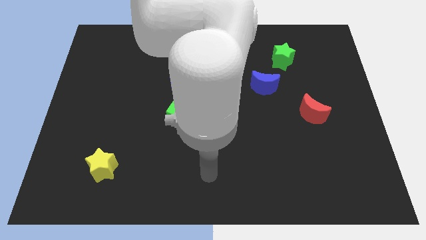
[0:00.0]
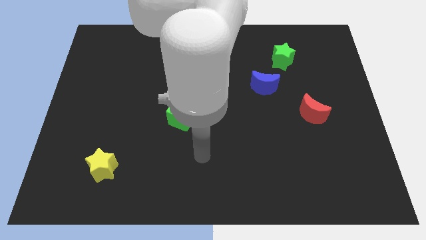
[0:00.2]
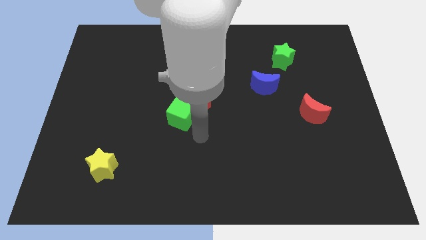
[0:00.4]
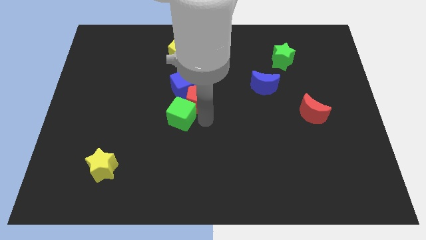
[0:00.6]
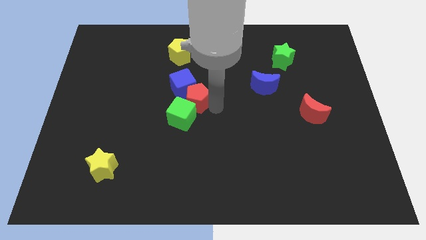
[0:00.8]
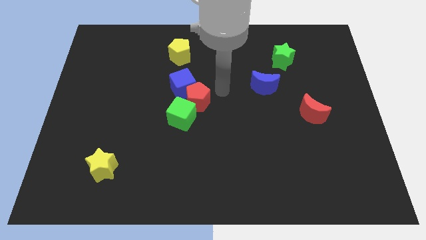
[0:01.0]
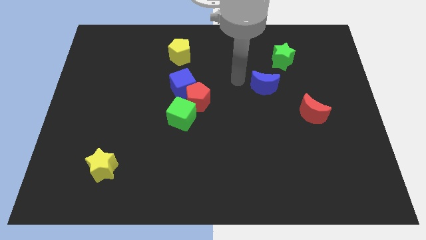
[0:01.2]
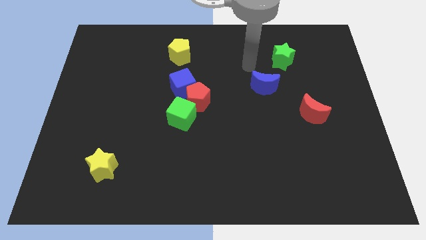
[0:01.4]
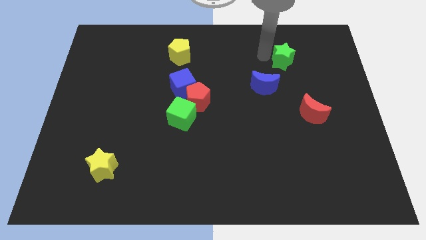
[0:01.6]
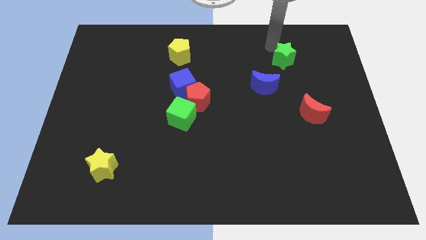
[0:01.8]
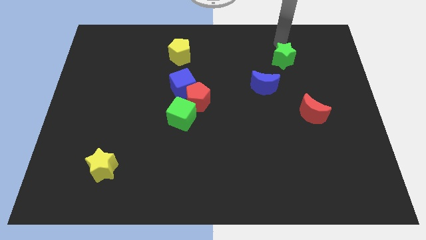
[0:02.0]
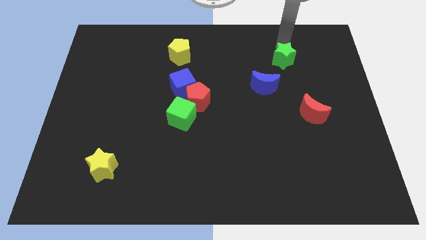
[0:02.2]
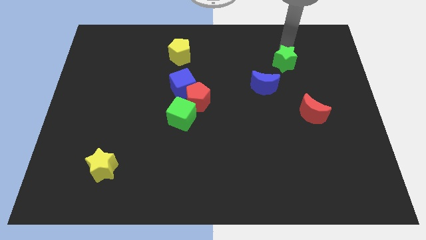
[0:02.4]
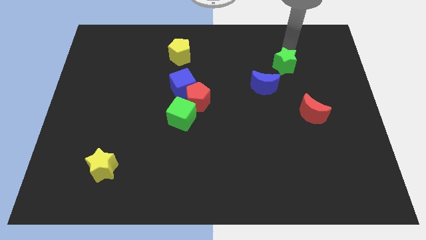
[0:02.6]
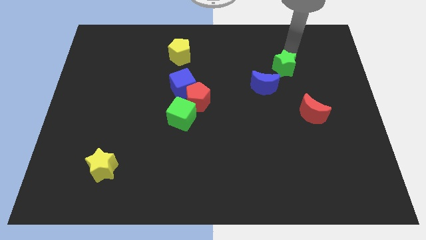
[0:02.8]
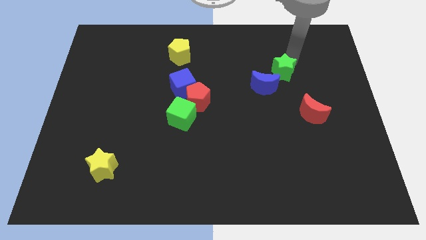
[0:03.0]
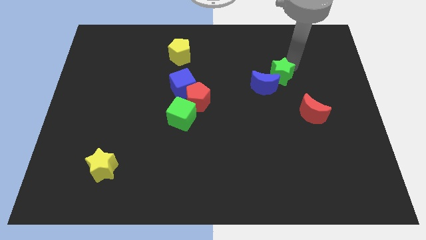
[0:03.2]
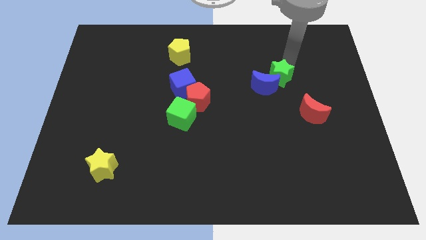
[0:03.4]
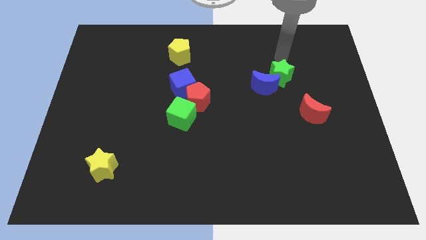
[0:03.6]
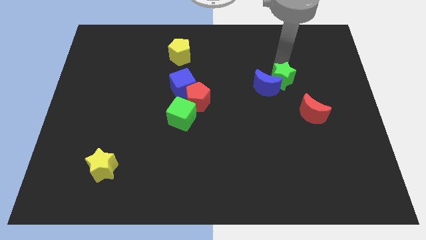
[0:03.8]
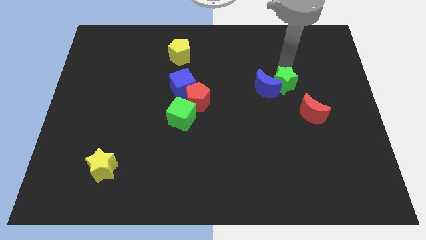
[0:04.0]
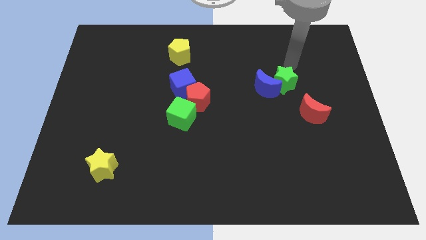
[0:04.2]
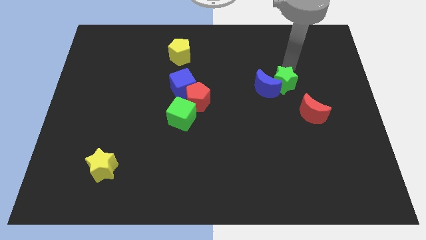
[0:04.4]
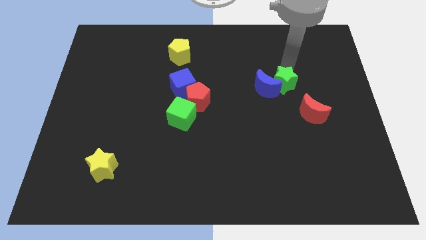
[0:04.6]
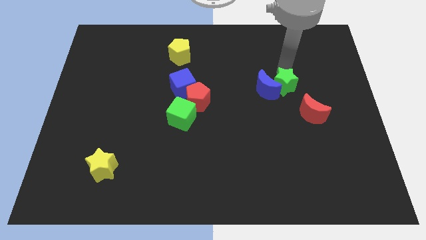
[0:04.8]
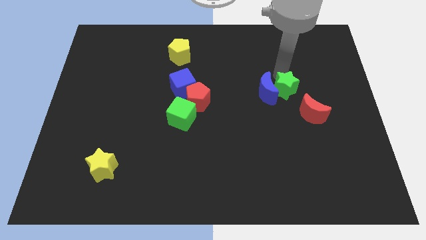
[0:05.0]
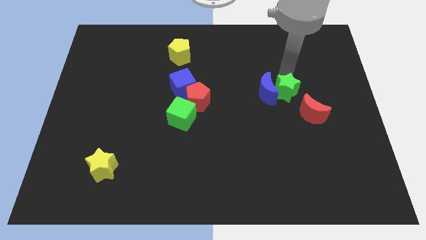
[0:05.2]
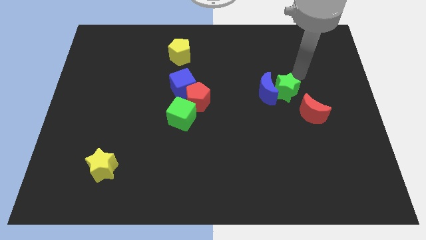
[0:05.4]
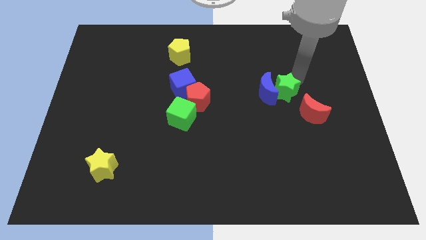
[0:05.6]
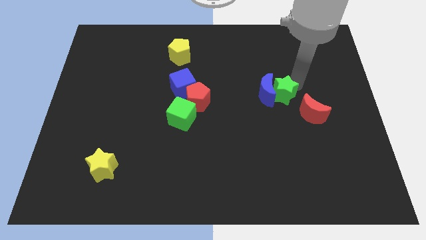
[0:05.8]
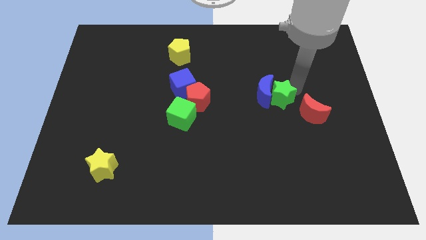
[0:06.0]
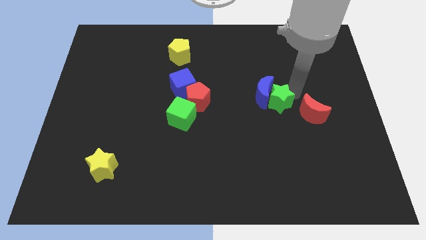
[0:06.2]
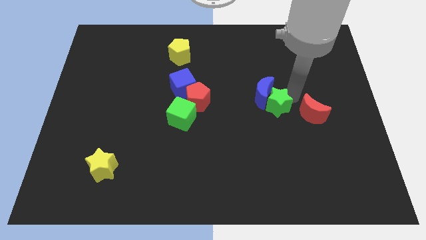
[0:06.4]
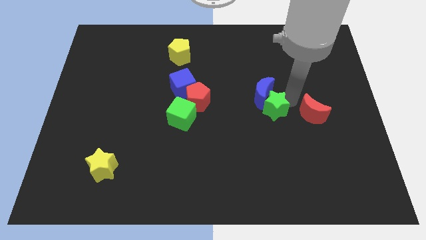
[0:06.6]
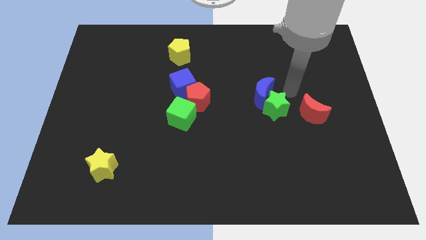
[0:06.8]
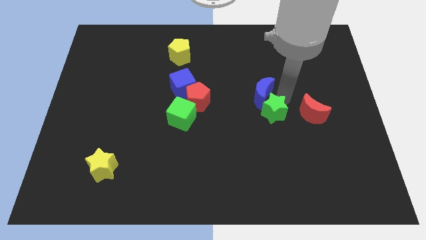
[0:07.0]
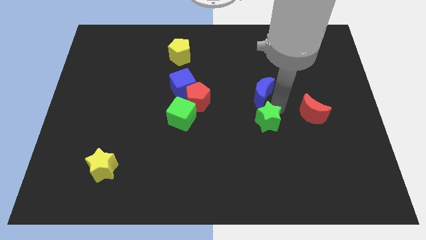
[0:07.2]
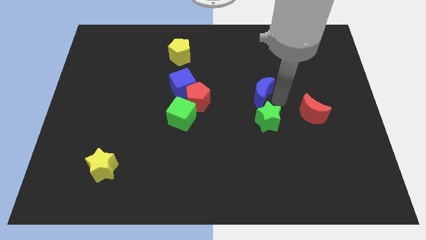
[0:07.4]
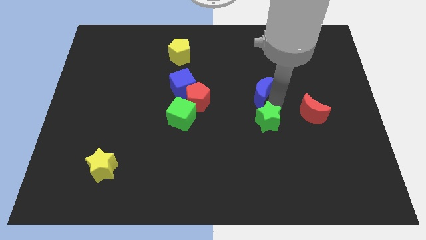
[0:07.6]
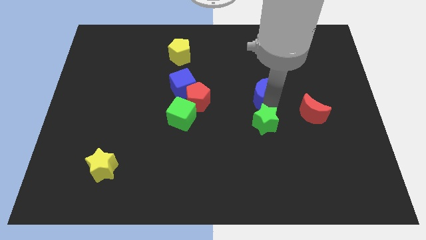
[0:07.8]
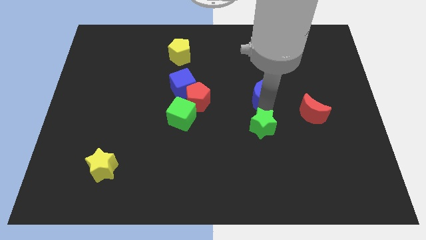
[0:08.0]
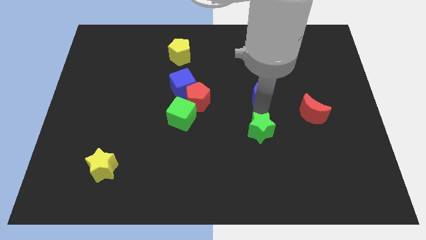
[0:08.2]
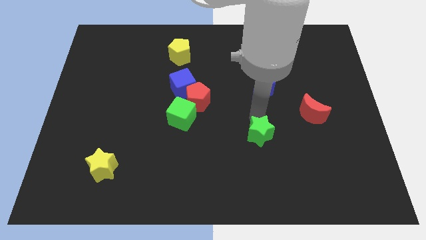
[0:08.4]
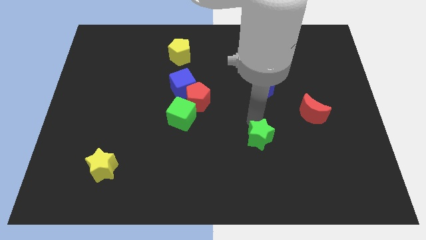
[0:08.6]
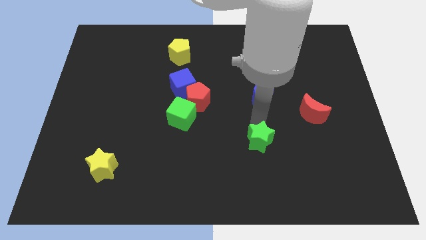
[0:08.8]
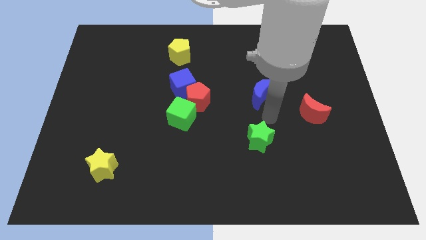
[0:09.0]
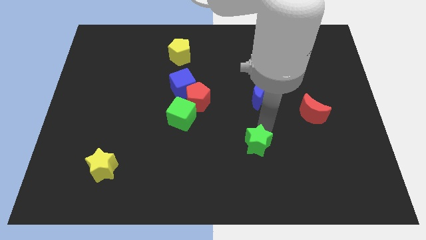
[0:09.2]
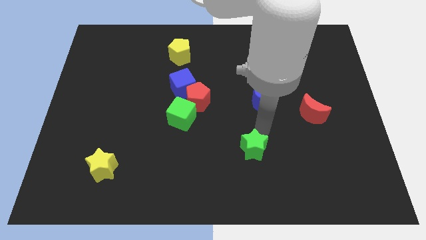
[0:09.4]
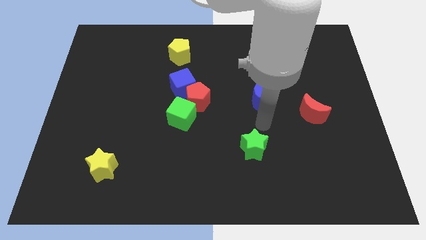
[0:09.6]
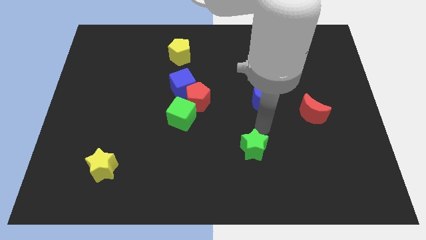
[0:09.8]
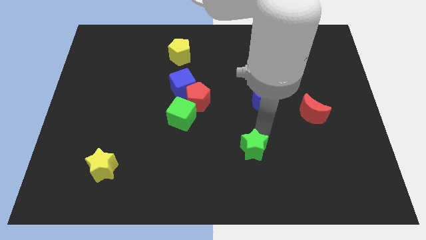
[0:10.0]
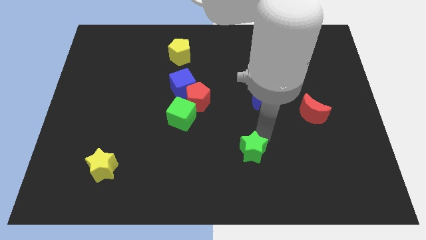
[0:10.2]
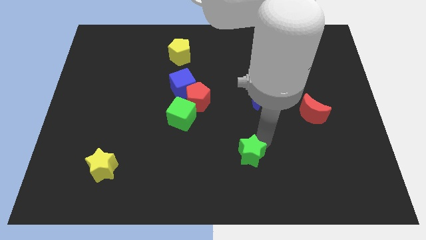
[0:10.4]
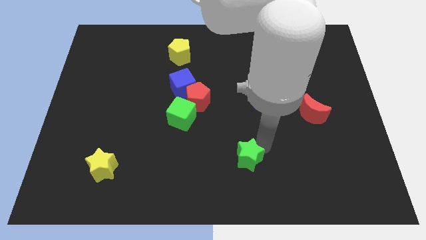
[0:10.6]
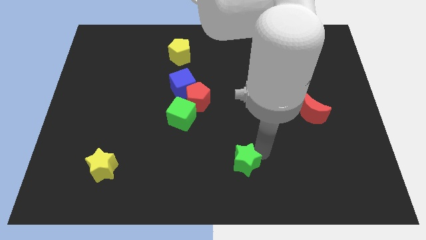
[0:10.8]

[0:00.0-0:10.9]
slide the green star to the bottom side

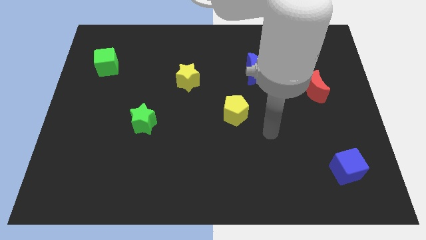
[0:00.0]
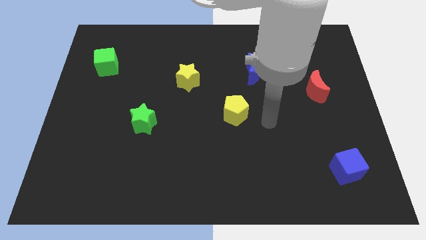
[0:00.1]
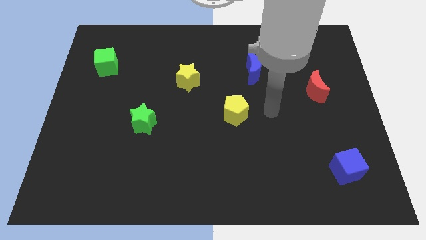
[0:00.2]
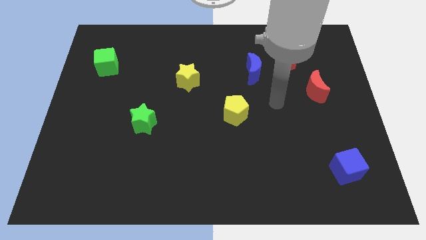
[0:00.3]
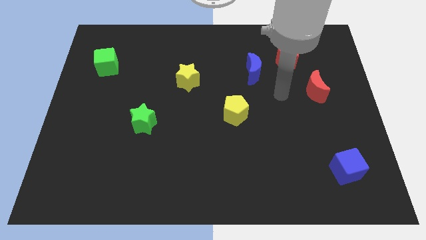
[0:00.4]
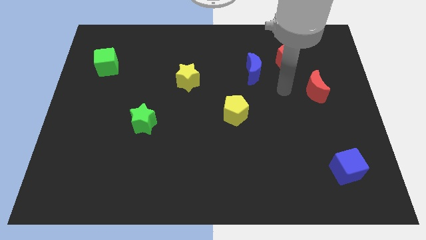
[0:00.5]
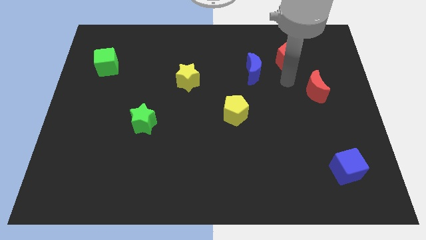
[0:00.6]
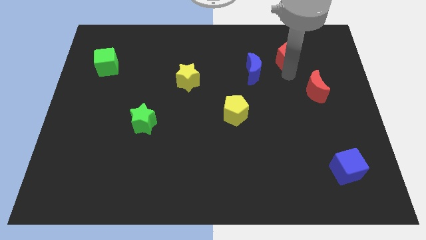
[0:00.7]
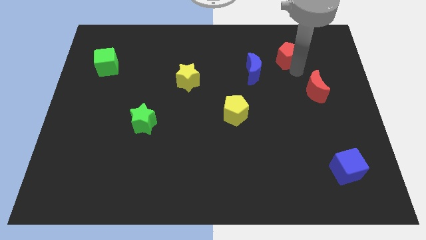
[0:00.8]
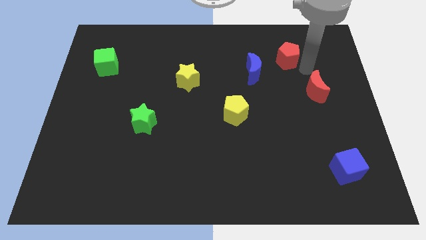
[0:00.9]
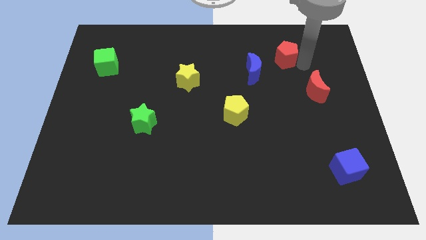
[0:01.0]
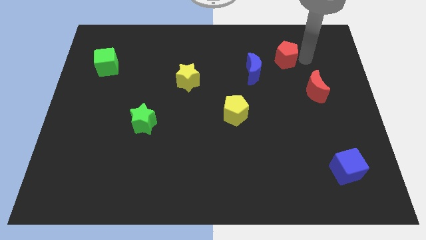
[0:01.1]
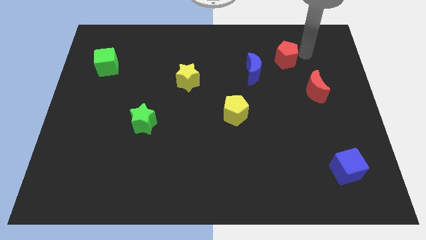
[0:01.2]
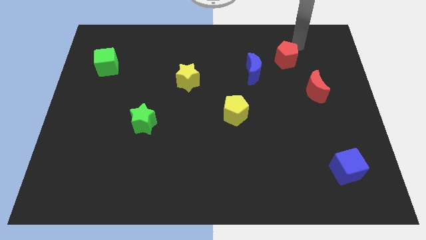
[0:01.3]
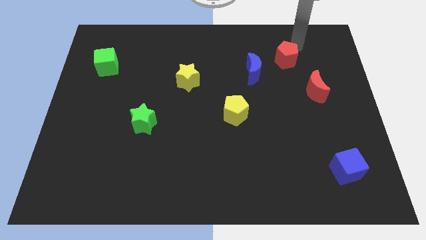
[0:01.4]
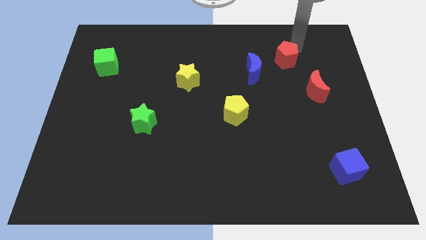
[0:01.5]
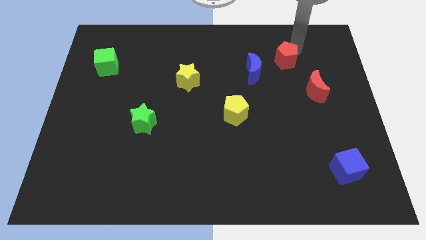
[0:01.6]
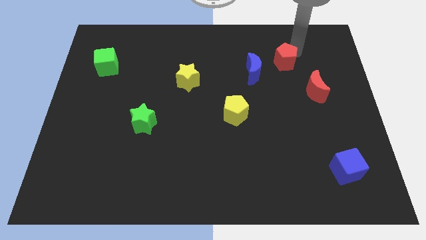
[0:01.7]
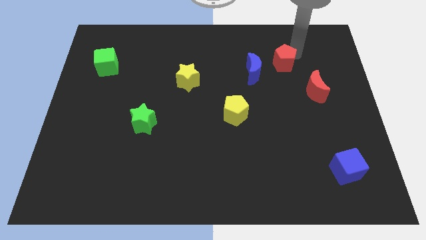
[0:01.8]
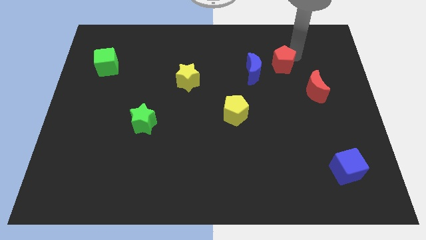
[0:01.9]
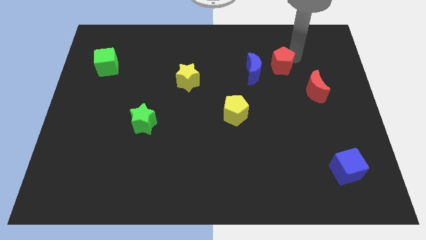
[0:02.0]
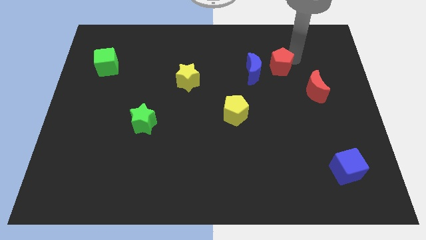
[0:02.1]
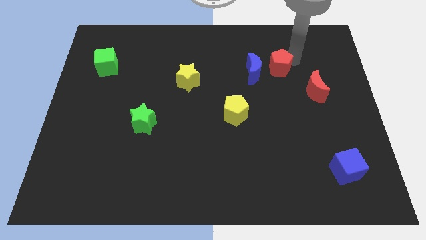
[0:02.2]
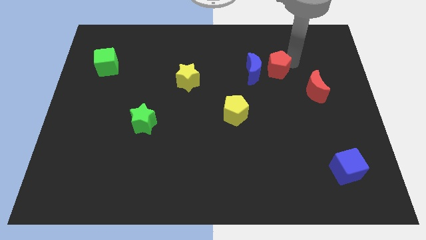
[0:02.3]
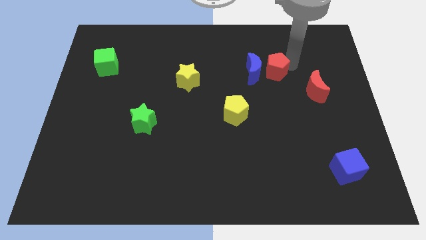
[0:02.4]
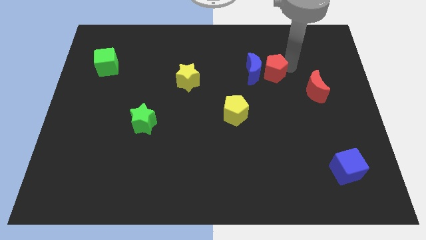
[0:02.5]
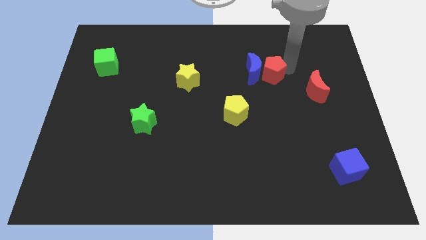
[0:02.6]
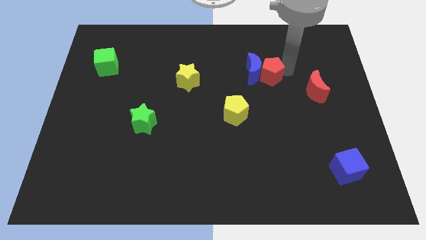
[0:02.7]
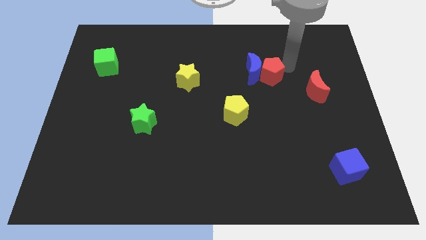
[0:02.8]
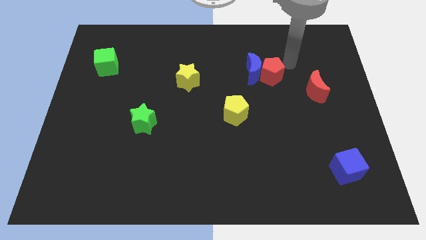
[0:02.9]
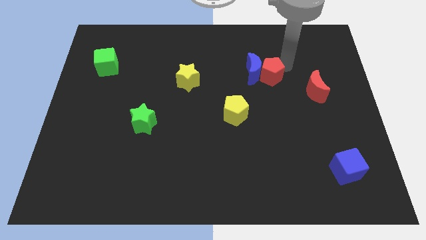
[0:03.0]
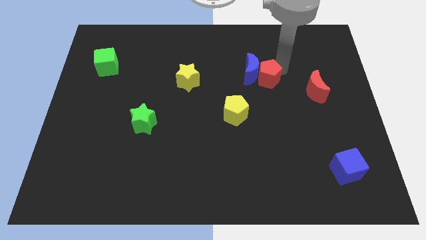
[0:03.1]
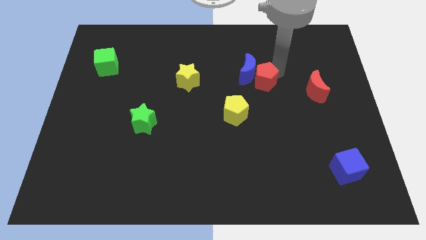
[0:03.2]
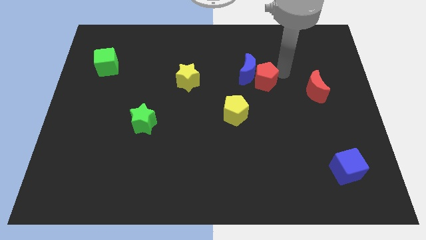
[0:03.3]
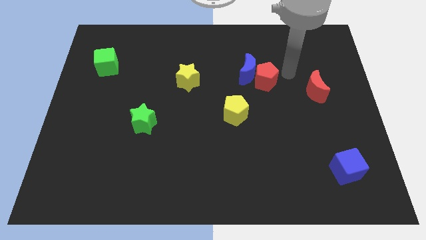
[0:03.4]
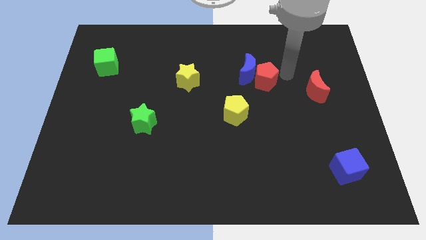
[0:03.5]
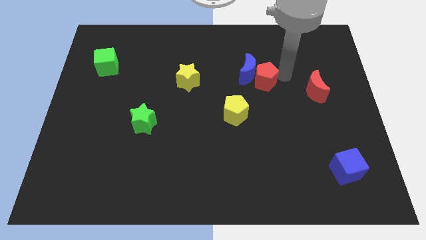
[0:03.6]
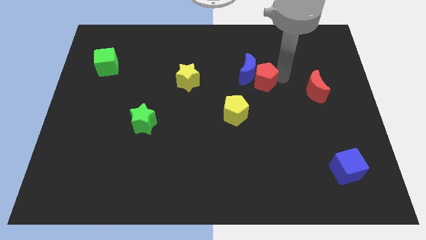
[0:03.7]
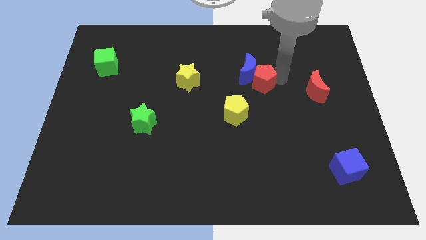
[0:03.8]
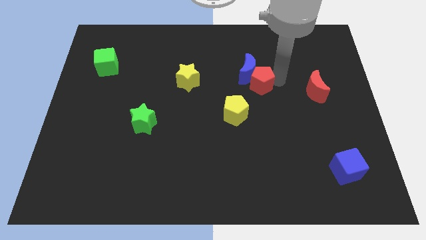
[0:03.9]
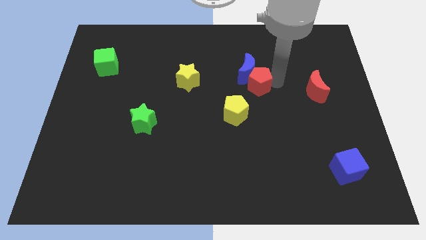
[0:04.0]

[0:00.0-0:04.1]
move the red pentagon to the center of the board
